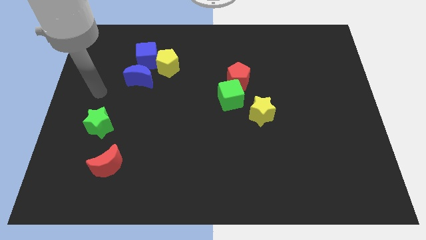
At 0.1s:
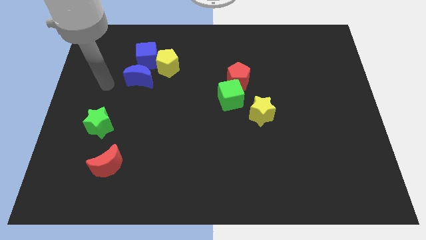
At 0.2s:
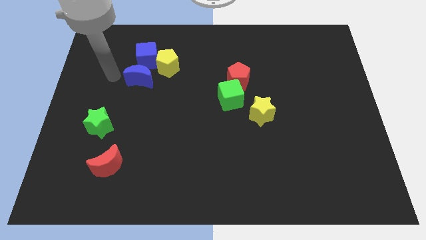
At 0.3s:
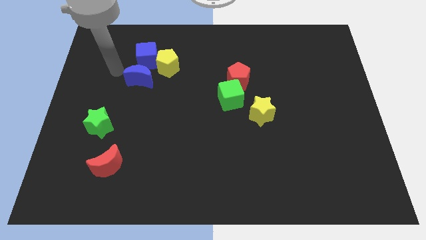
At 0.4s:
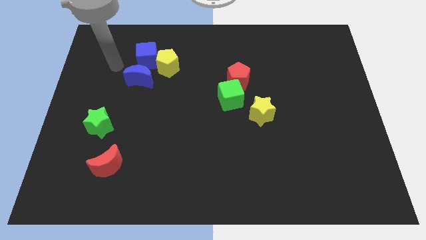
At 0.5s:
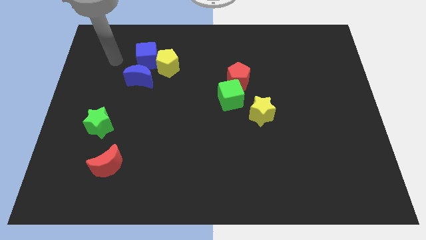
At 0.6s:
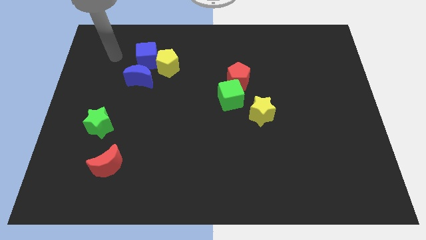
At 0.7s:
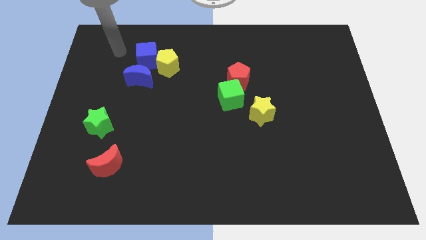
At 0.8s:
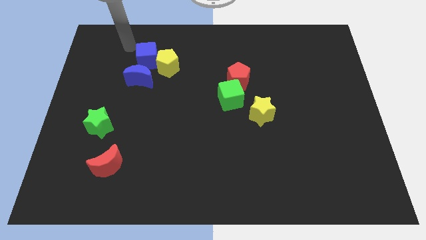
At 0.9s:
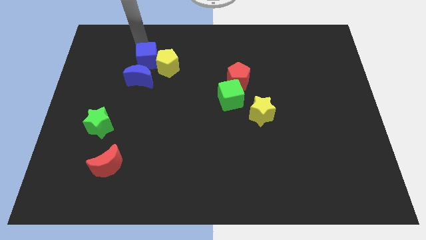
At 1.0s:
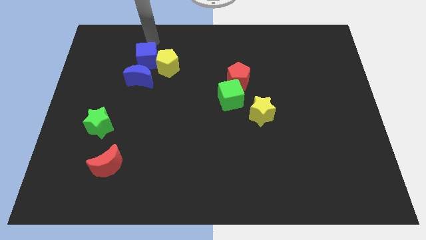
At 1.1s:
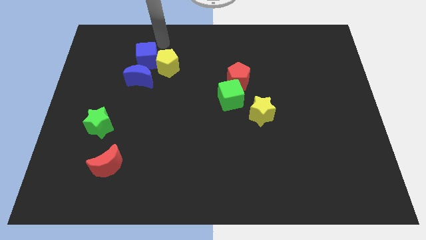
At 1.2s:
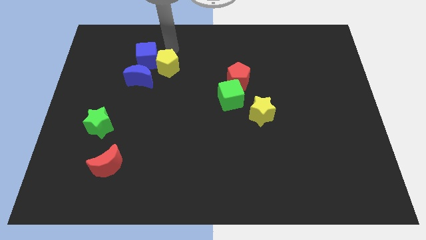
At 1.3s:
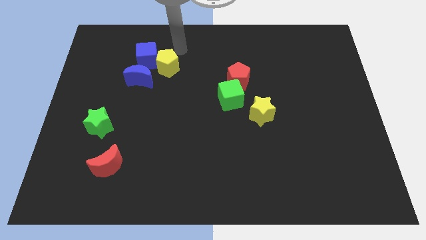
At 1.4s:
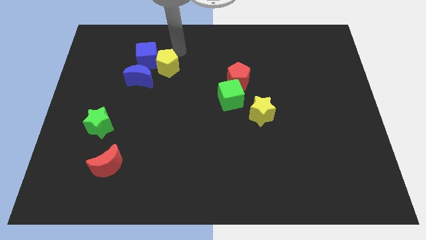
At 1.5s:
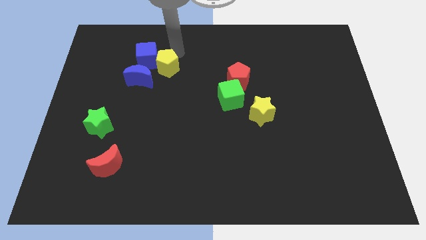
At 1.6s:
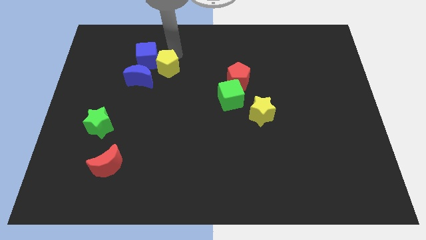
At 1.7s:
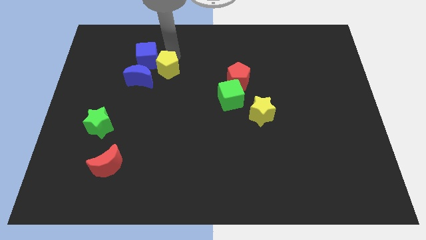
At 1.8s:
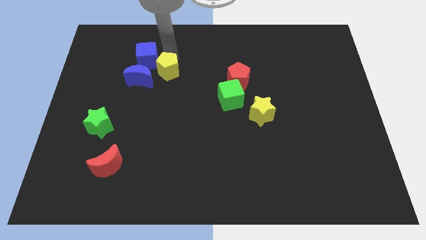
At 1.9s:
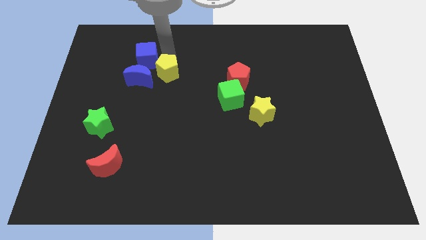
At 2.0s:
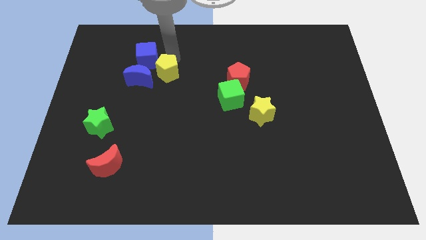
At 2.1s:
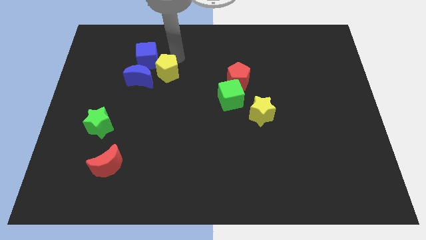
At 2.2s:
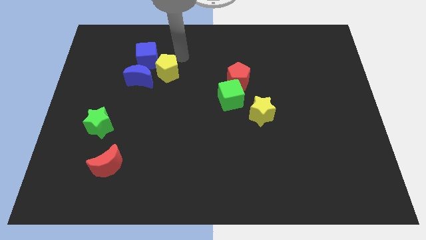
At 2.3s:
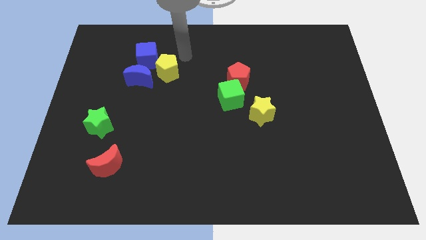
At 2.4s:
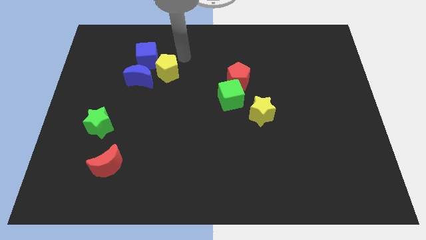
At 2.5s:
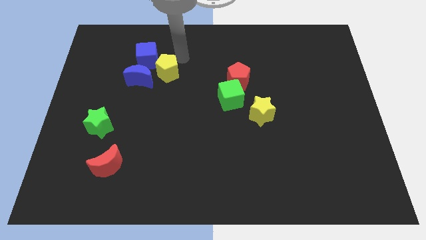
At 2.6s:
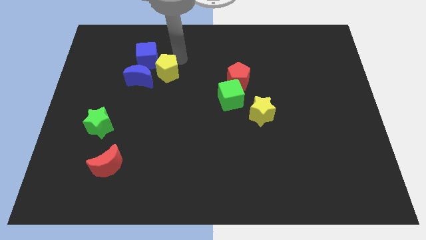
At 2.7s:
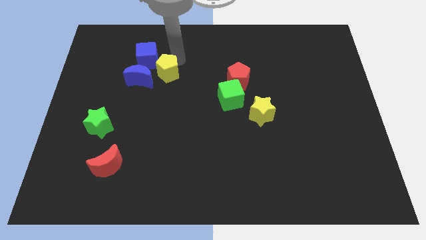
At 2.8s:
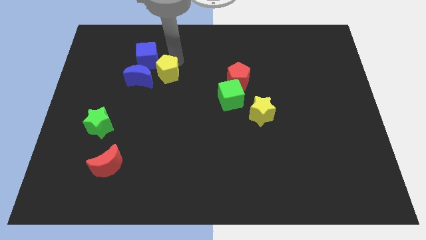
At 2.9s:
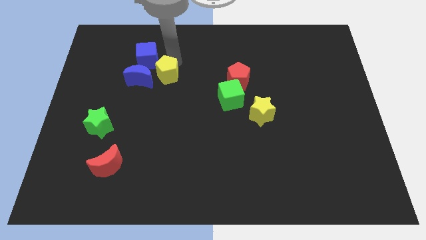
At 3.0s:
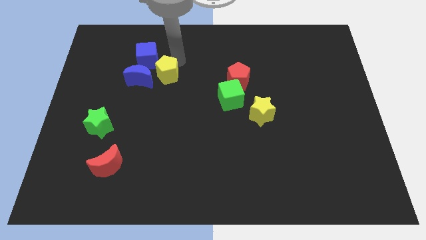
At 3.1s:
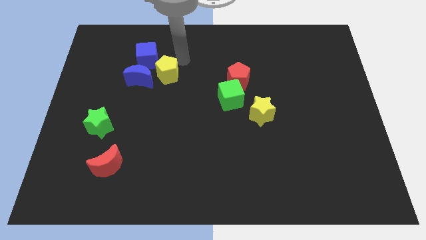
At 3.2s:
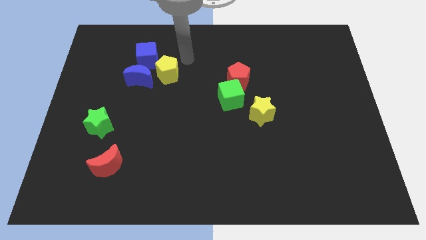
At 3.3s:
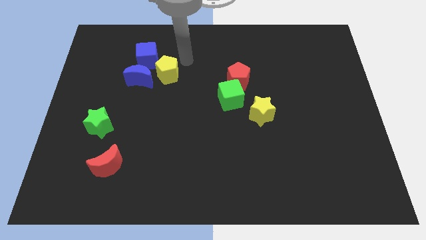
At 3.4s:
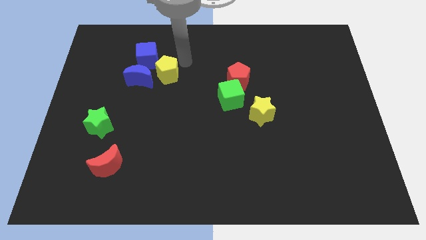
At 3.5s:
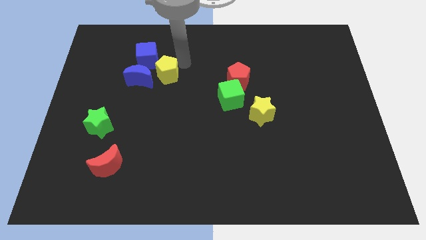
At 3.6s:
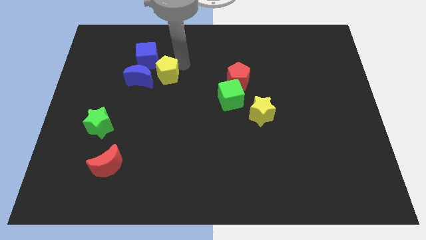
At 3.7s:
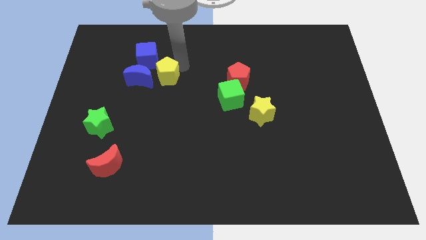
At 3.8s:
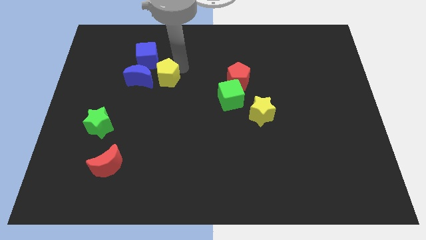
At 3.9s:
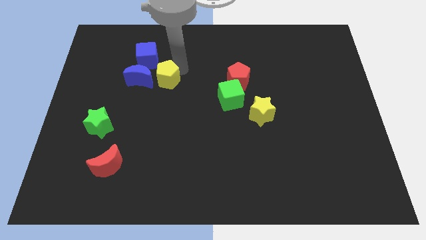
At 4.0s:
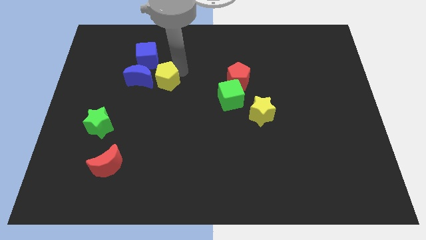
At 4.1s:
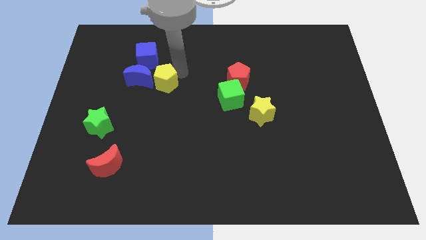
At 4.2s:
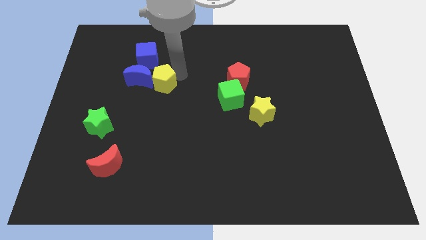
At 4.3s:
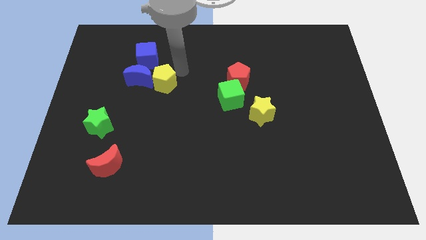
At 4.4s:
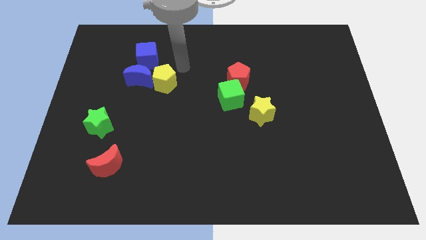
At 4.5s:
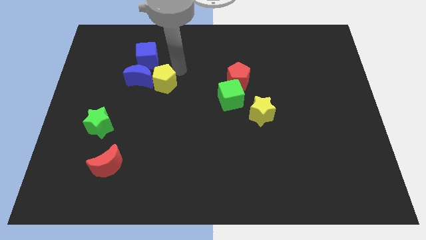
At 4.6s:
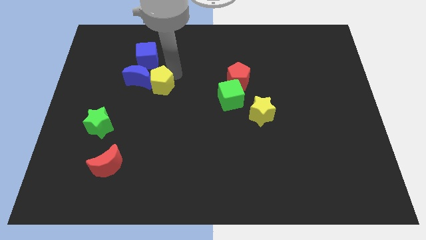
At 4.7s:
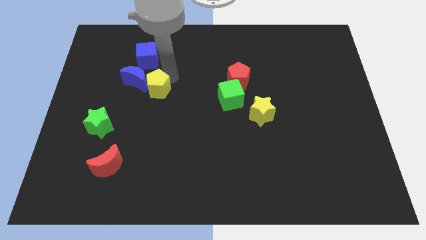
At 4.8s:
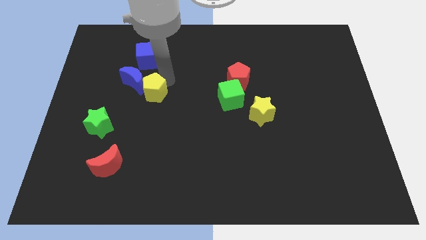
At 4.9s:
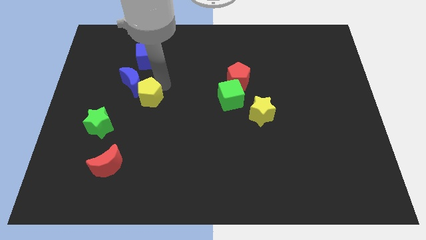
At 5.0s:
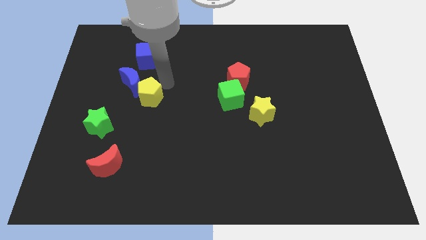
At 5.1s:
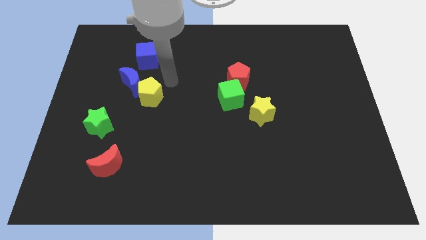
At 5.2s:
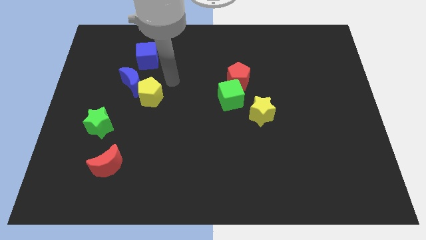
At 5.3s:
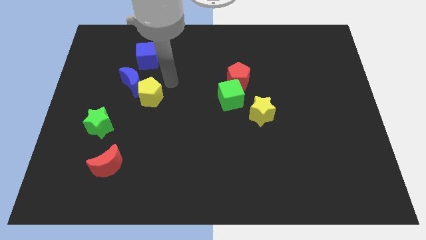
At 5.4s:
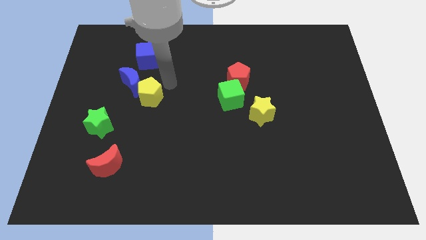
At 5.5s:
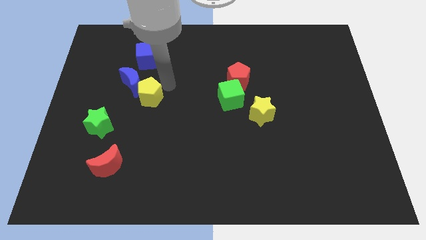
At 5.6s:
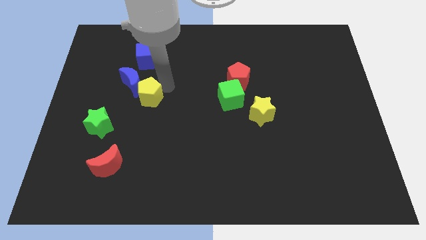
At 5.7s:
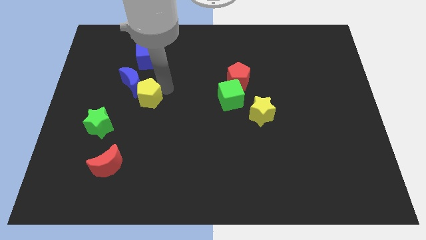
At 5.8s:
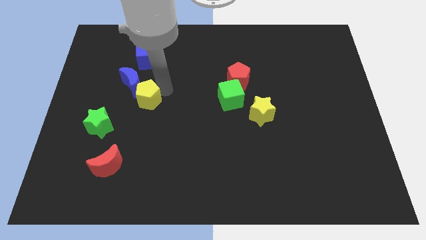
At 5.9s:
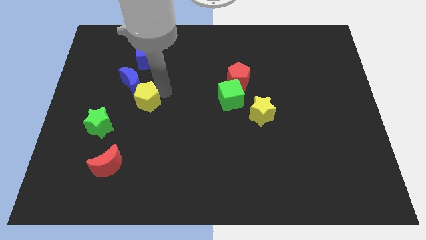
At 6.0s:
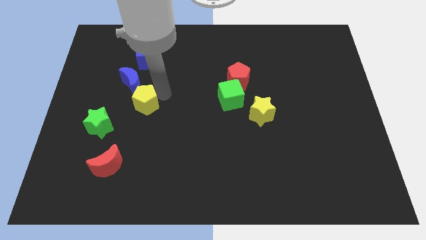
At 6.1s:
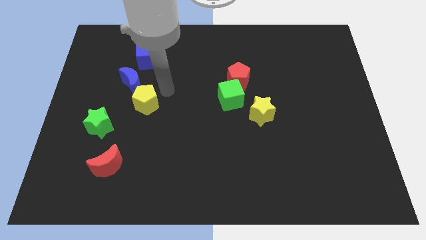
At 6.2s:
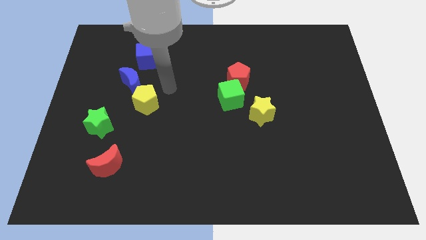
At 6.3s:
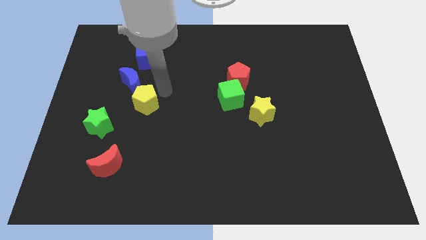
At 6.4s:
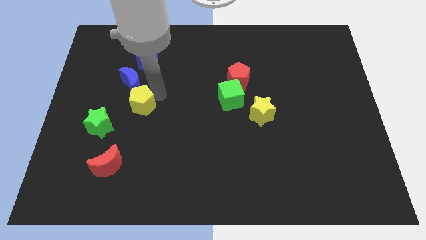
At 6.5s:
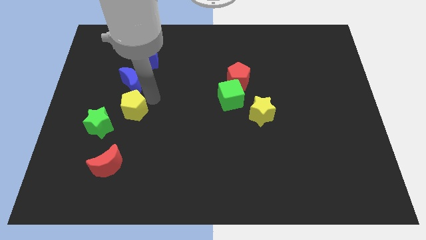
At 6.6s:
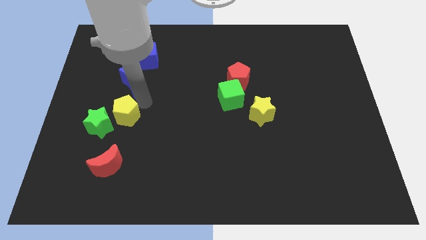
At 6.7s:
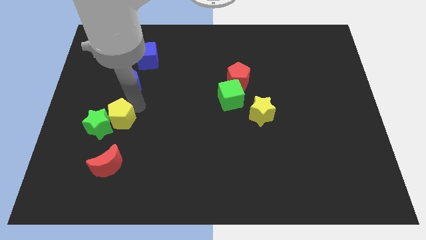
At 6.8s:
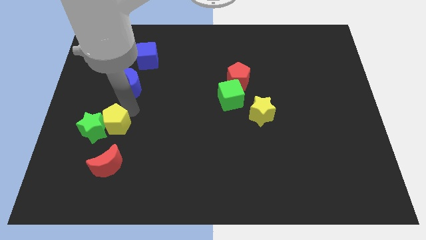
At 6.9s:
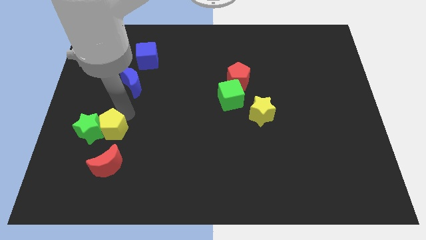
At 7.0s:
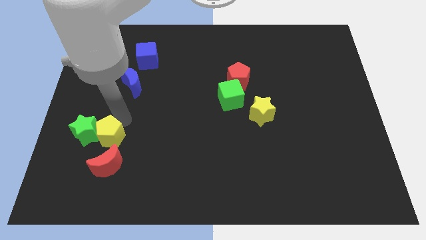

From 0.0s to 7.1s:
put the yellow pentagon to the top left side of the red moon
